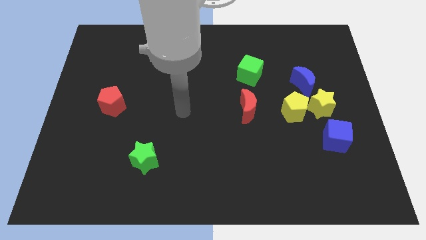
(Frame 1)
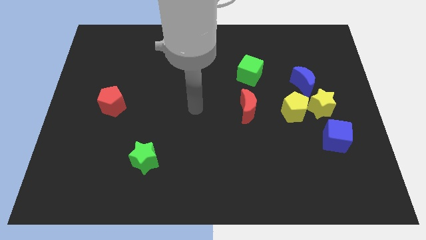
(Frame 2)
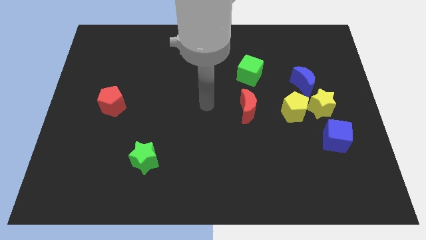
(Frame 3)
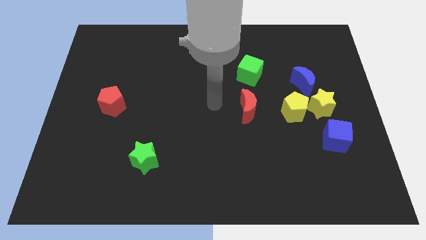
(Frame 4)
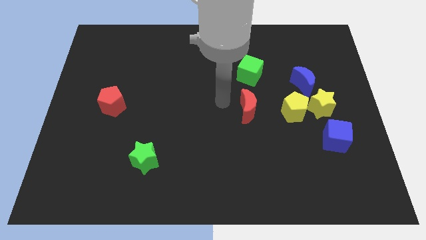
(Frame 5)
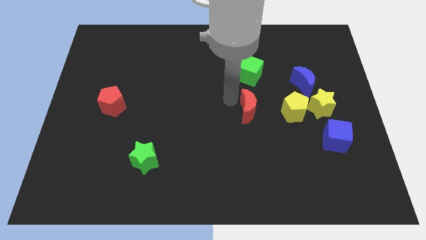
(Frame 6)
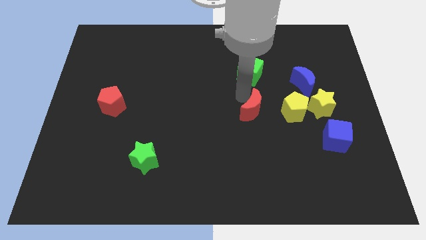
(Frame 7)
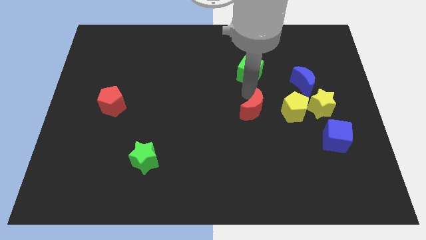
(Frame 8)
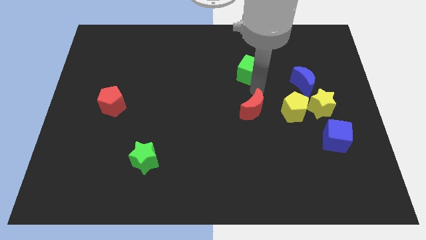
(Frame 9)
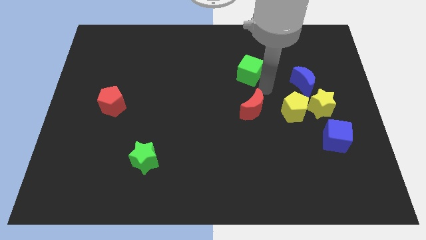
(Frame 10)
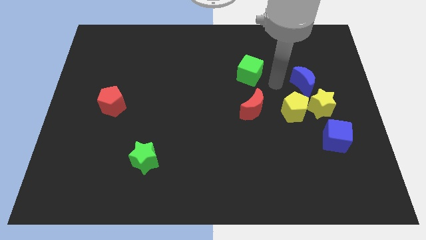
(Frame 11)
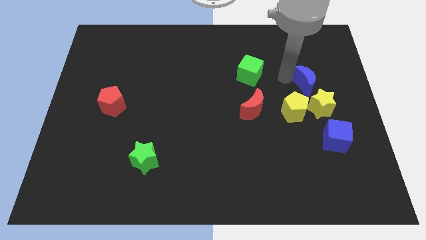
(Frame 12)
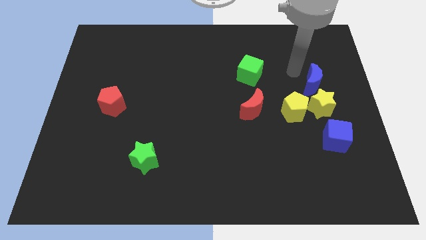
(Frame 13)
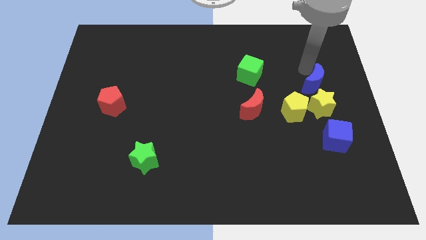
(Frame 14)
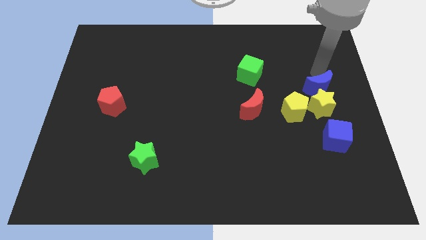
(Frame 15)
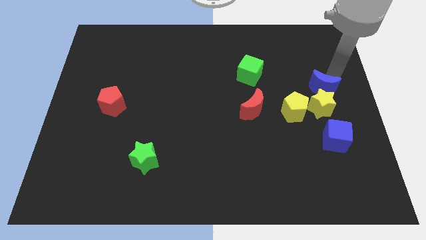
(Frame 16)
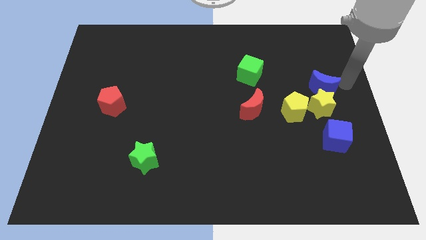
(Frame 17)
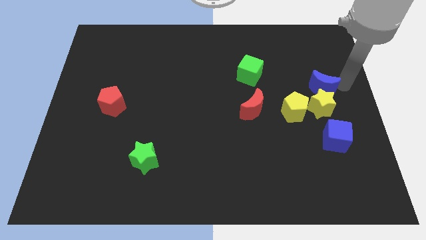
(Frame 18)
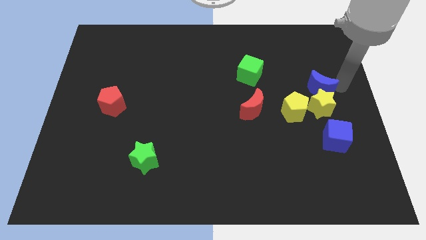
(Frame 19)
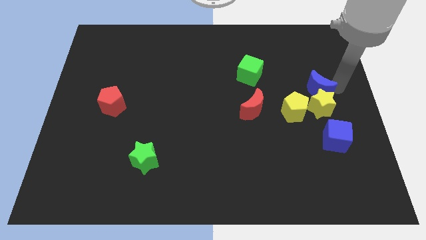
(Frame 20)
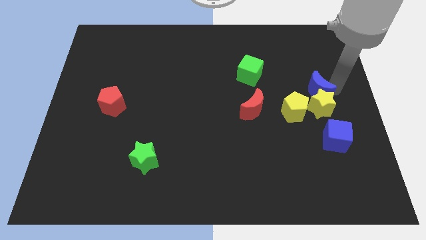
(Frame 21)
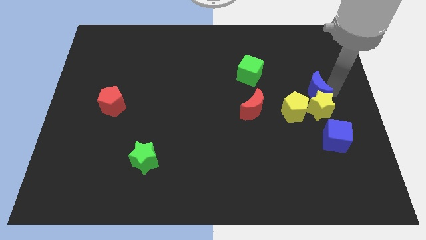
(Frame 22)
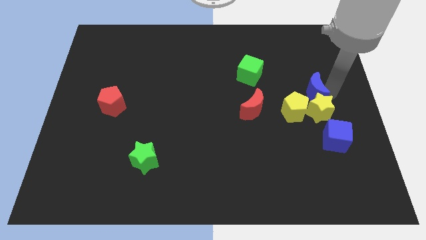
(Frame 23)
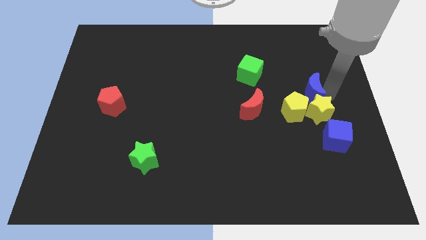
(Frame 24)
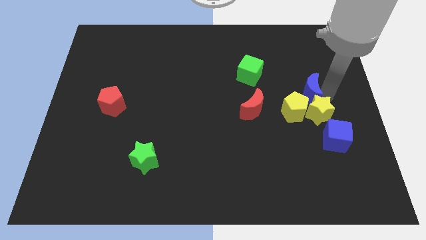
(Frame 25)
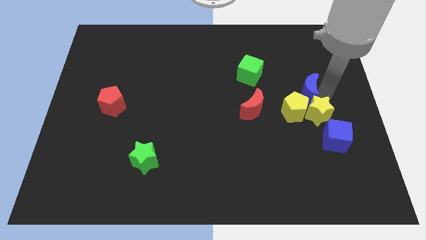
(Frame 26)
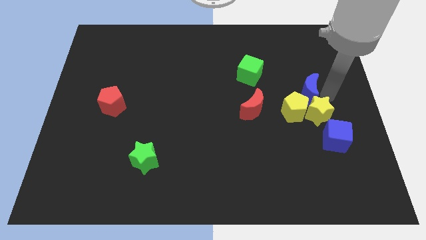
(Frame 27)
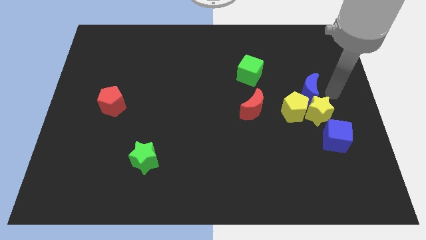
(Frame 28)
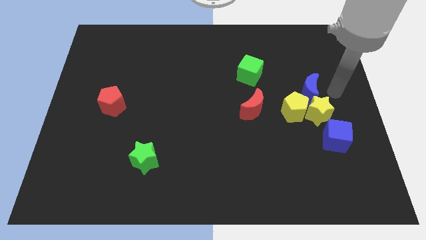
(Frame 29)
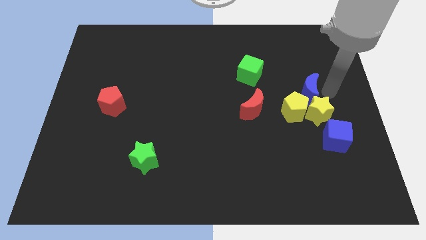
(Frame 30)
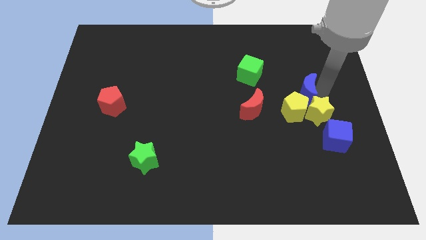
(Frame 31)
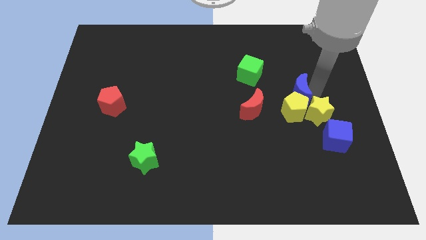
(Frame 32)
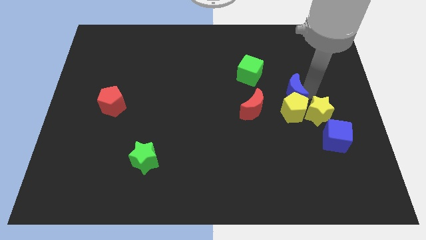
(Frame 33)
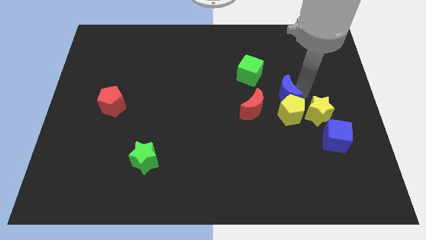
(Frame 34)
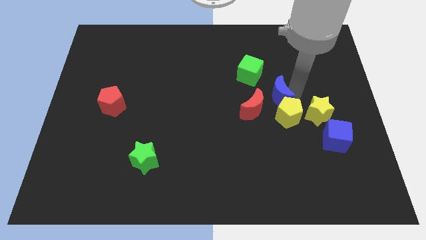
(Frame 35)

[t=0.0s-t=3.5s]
push the blue moon diagonally down and to the left a bit

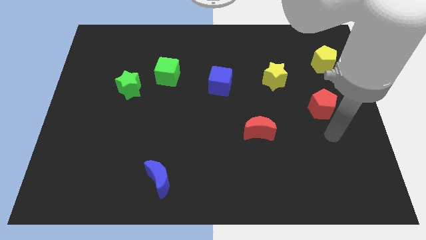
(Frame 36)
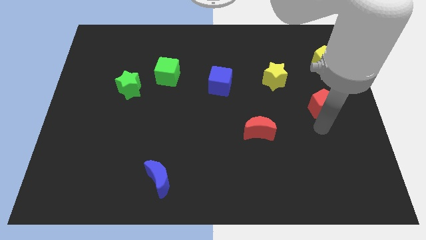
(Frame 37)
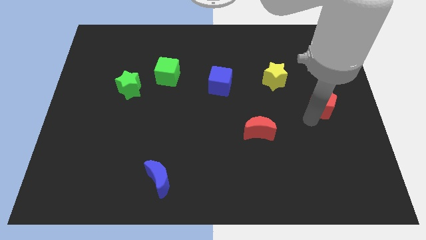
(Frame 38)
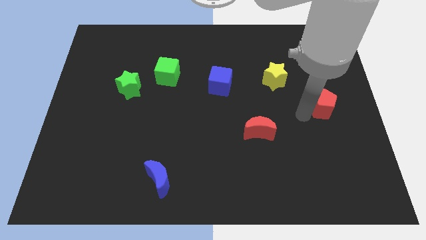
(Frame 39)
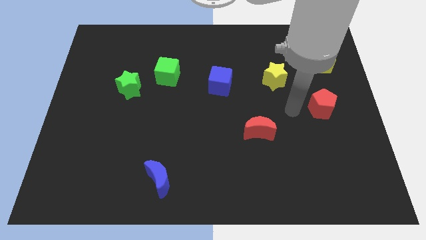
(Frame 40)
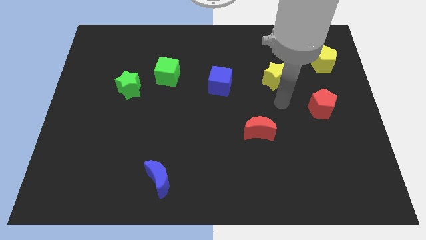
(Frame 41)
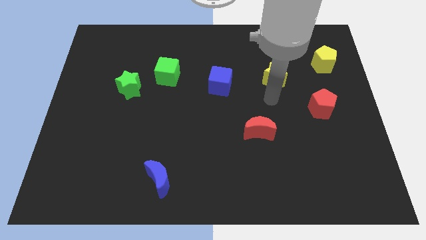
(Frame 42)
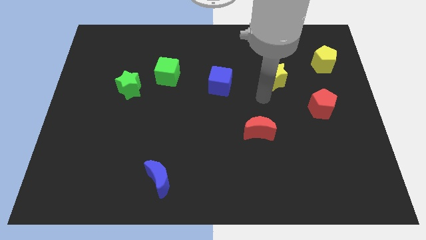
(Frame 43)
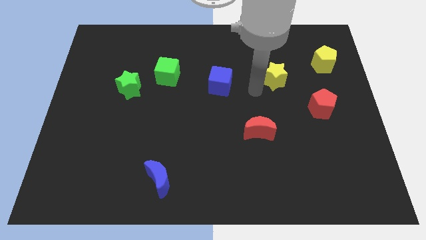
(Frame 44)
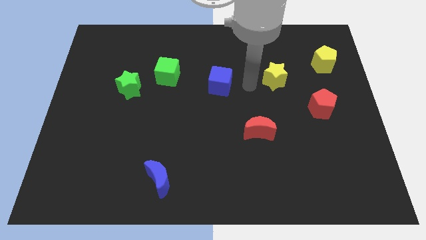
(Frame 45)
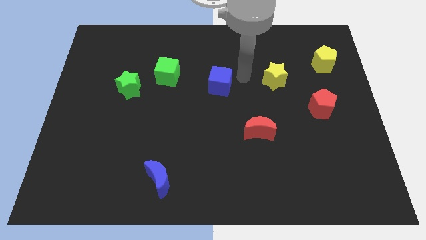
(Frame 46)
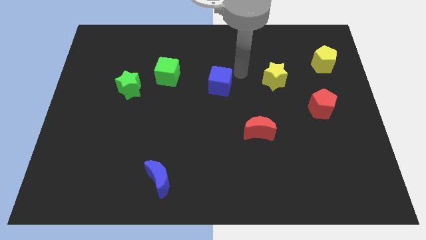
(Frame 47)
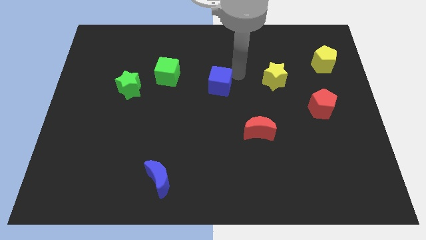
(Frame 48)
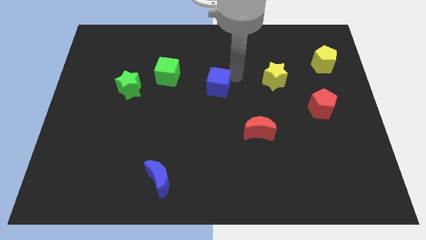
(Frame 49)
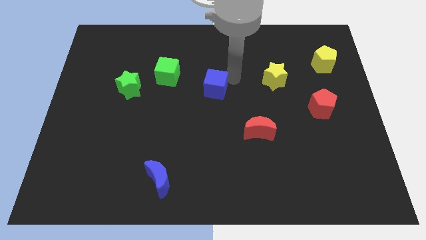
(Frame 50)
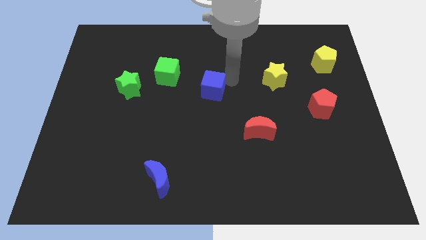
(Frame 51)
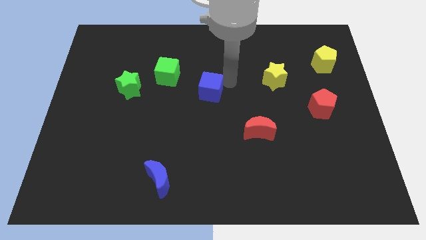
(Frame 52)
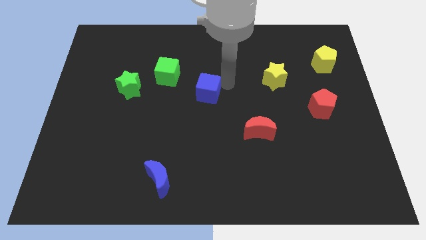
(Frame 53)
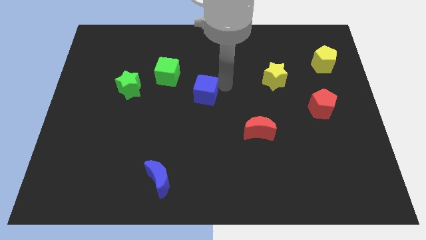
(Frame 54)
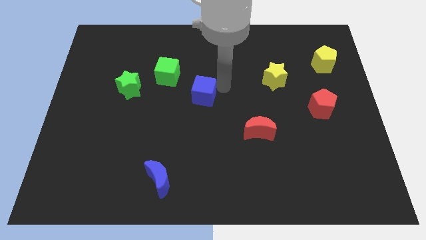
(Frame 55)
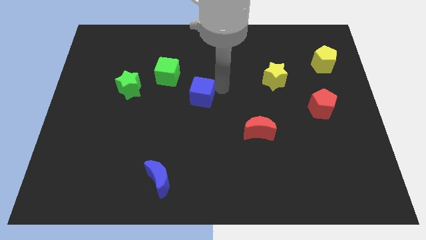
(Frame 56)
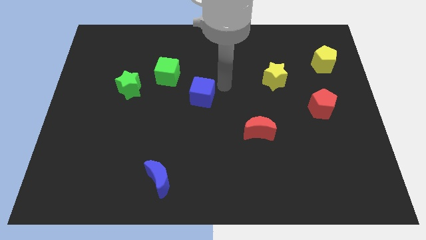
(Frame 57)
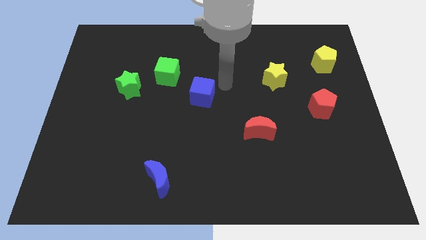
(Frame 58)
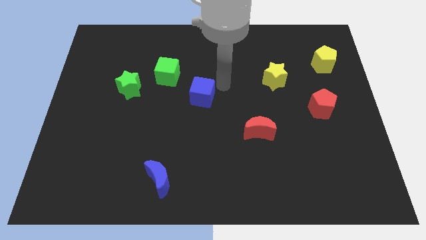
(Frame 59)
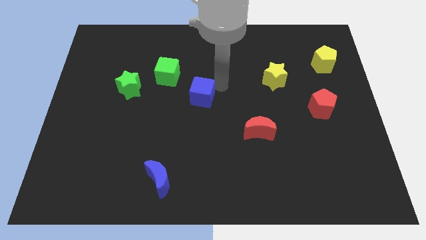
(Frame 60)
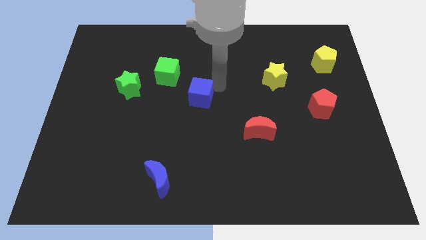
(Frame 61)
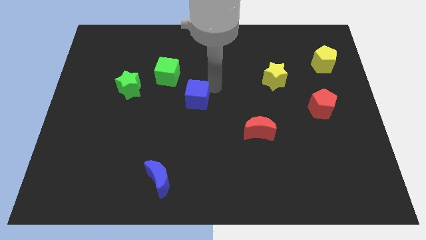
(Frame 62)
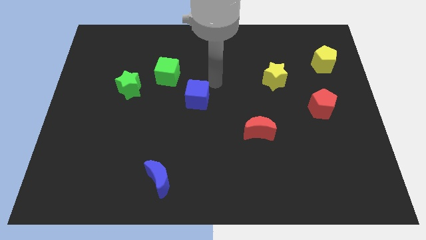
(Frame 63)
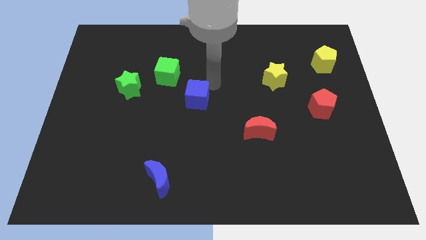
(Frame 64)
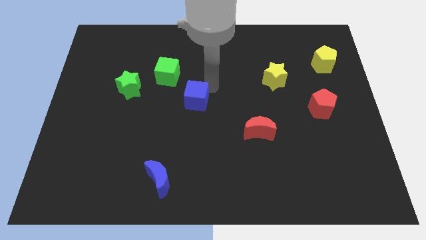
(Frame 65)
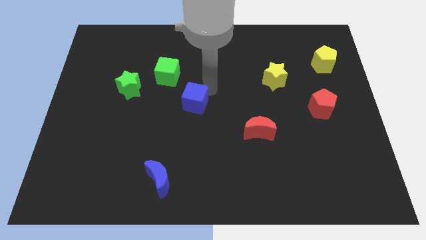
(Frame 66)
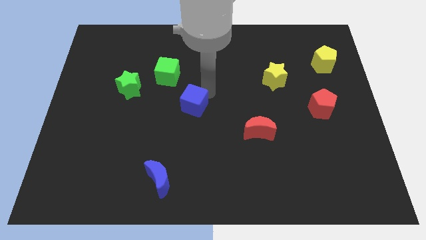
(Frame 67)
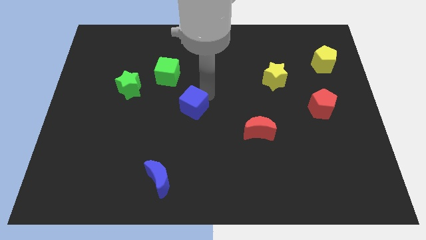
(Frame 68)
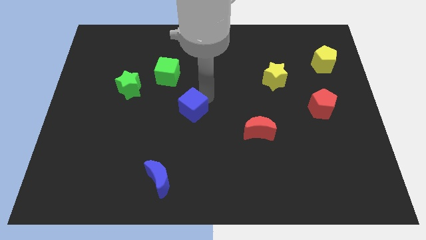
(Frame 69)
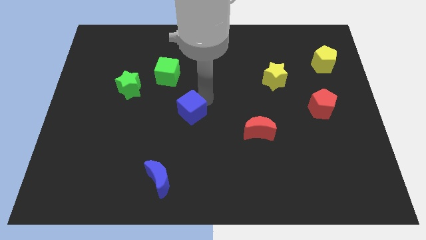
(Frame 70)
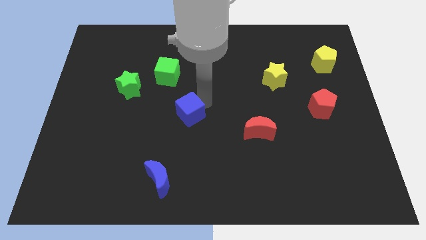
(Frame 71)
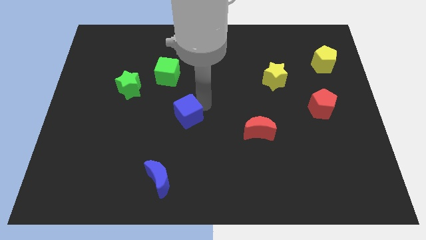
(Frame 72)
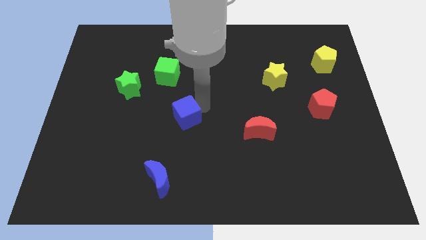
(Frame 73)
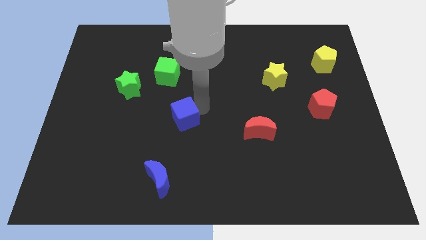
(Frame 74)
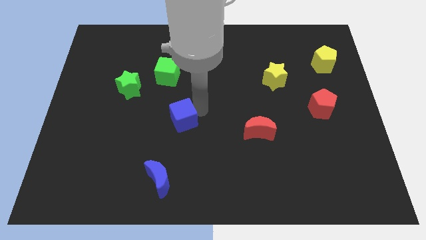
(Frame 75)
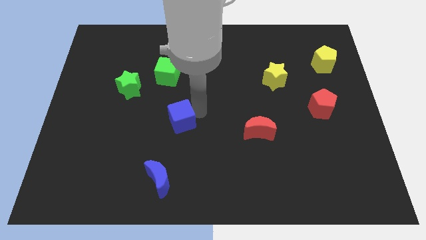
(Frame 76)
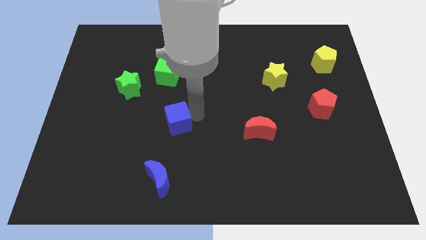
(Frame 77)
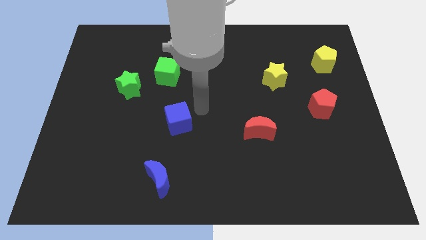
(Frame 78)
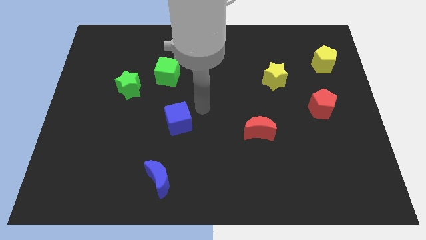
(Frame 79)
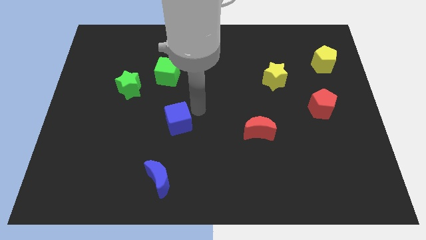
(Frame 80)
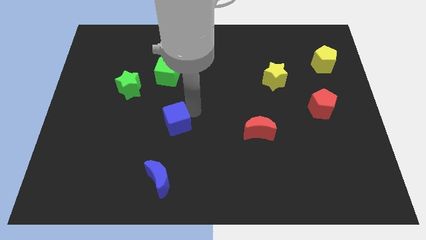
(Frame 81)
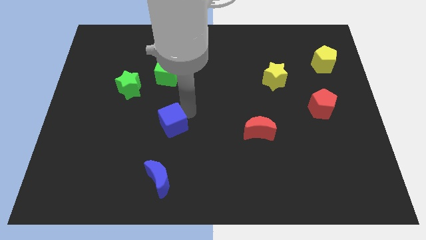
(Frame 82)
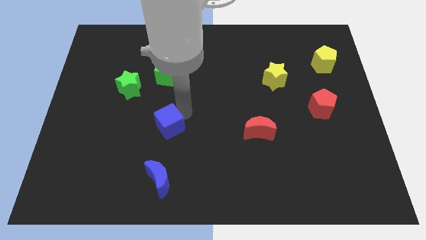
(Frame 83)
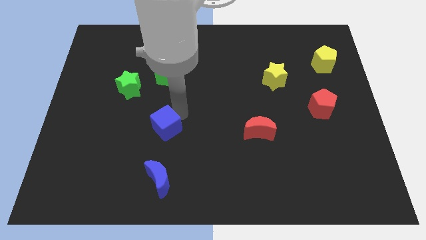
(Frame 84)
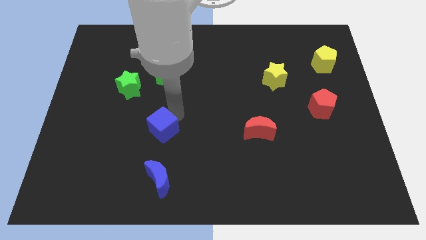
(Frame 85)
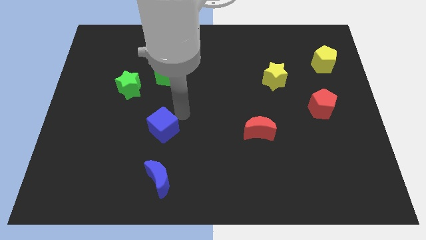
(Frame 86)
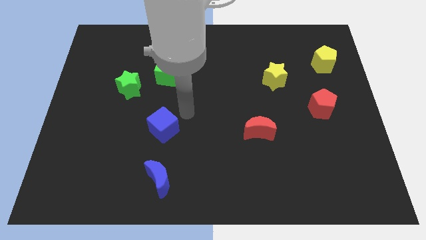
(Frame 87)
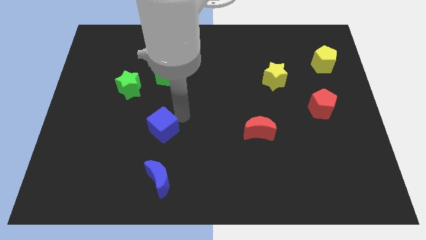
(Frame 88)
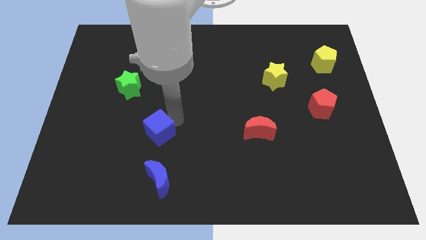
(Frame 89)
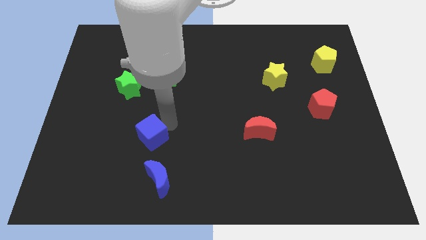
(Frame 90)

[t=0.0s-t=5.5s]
move the blue cube down and left diagonally
